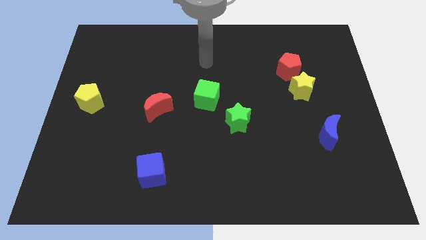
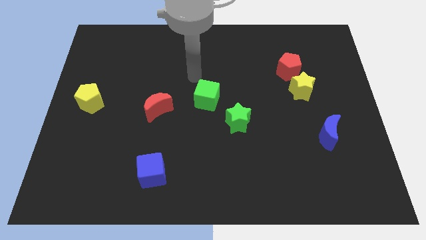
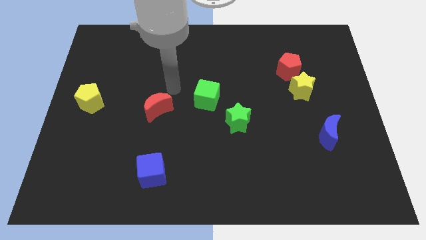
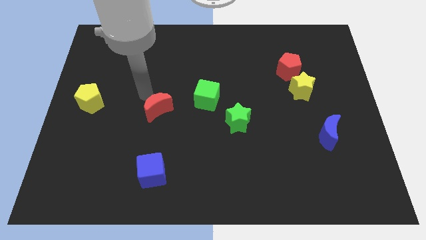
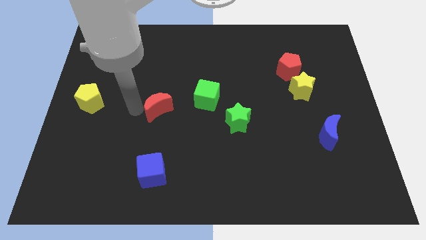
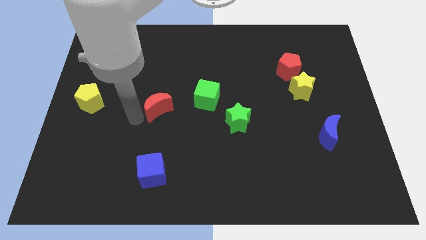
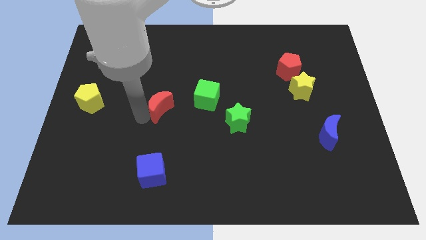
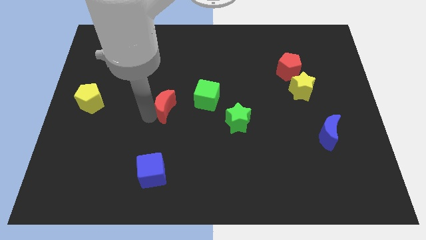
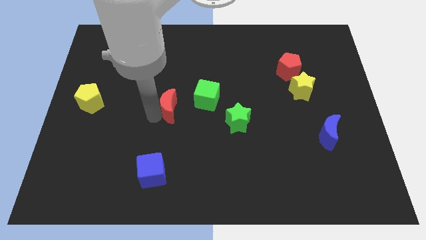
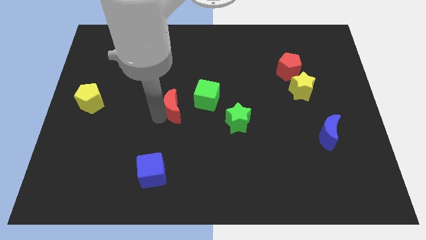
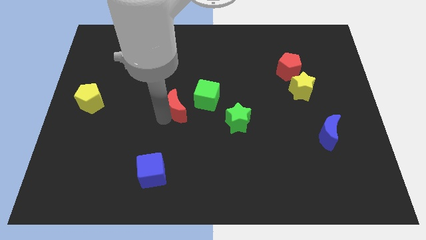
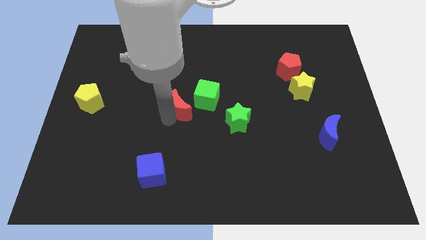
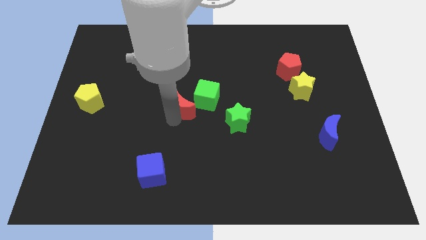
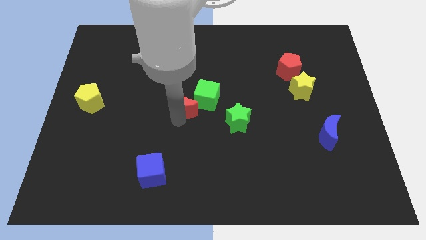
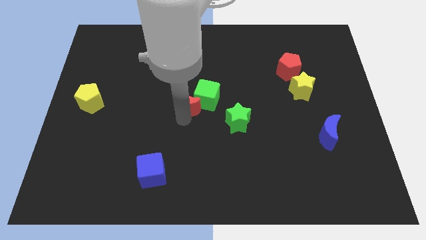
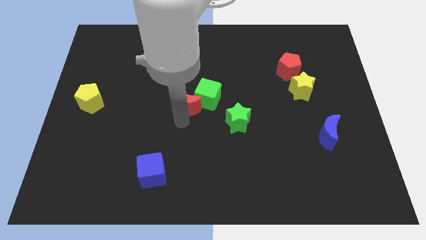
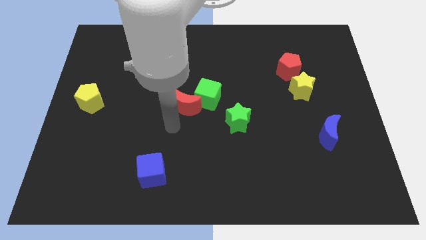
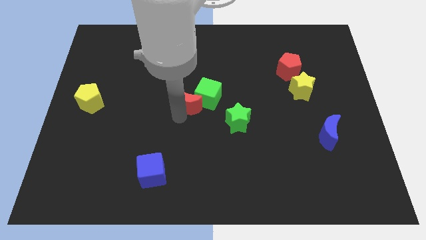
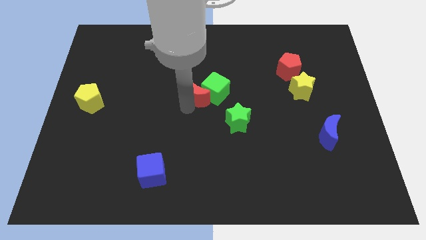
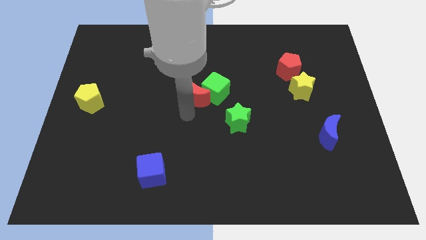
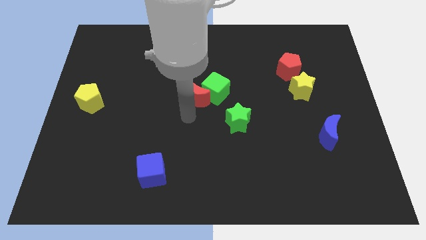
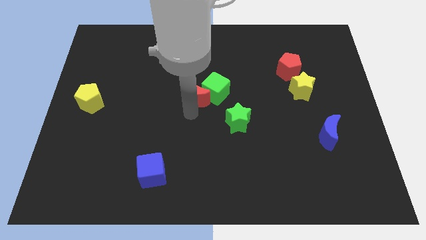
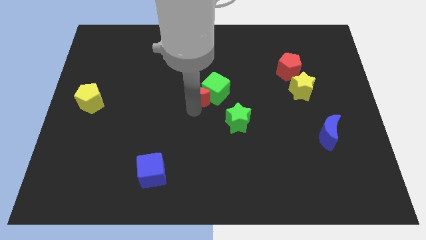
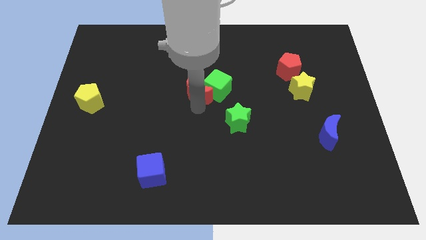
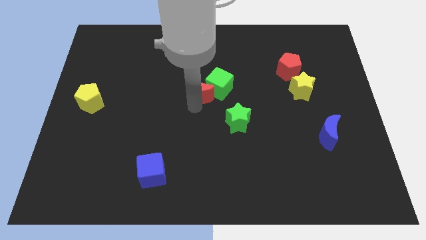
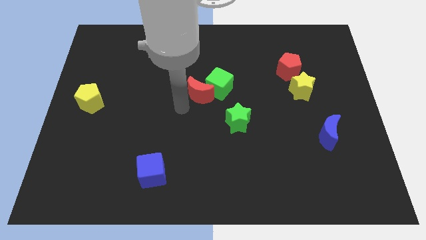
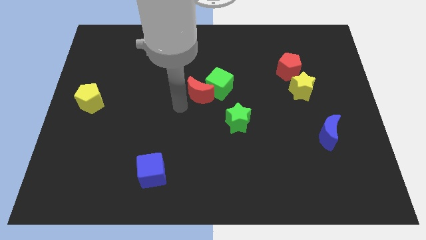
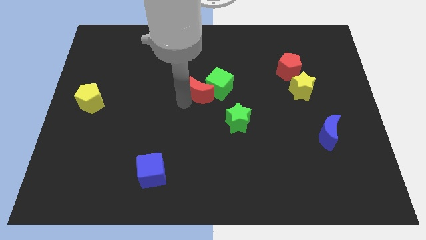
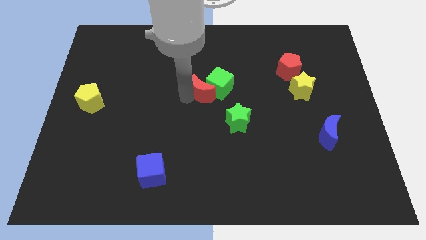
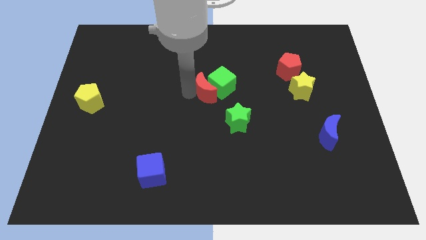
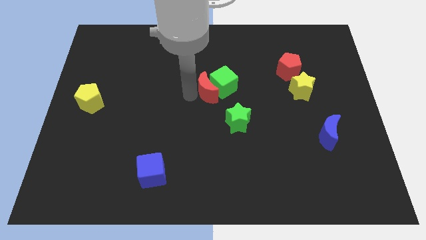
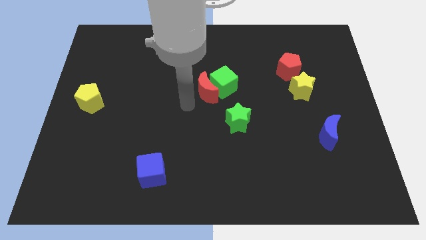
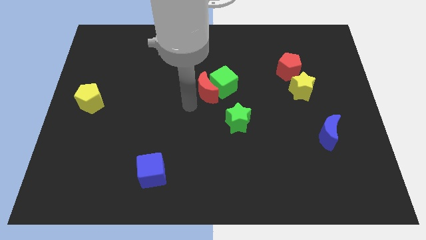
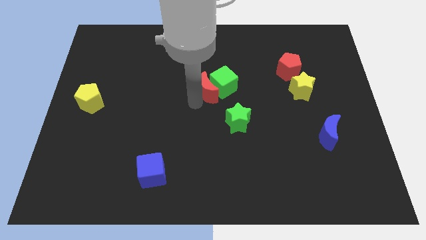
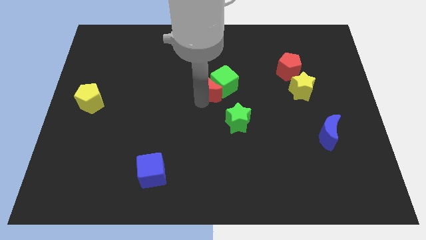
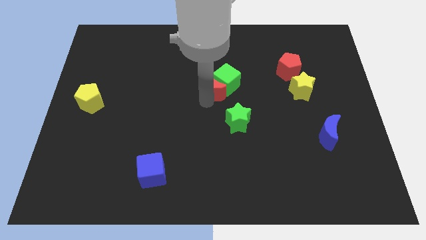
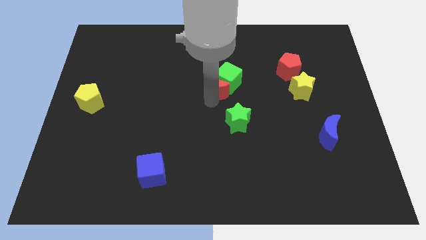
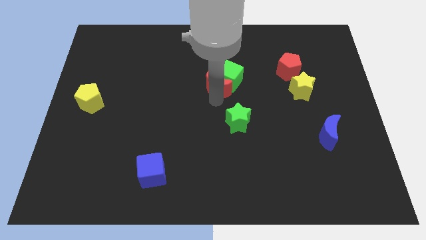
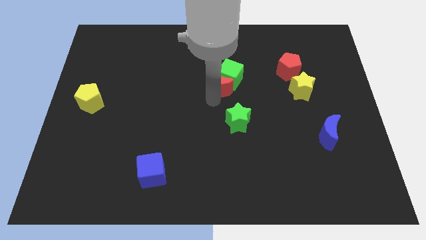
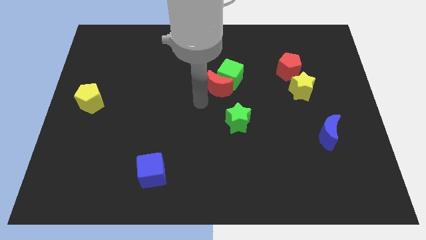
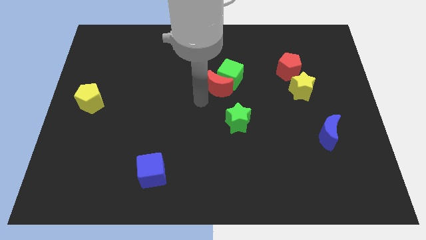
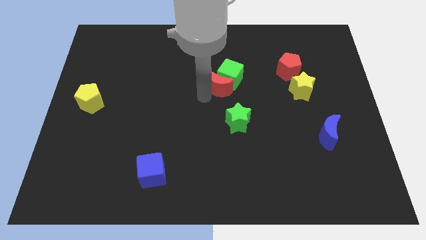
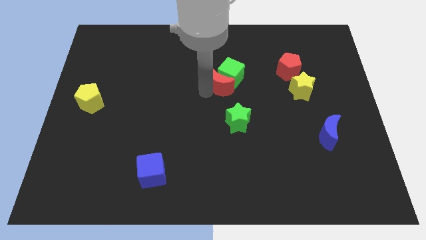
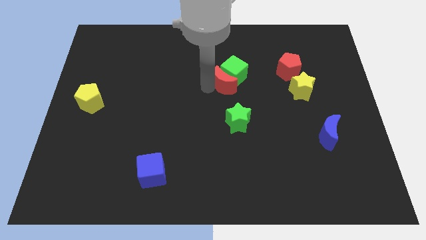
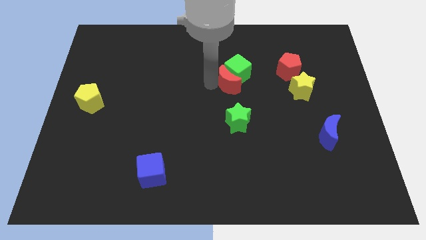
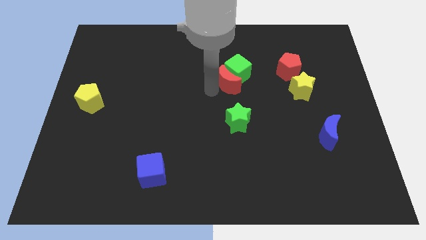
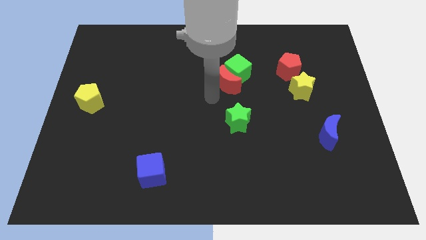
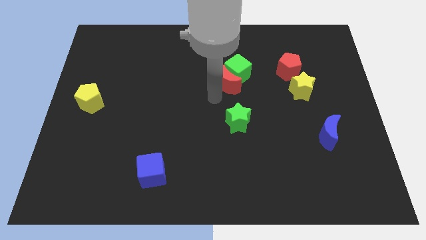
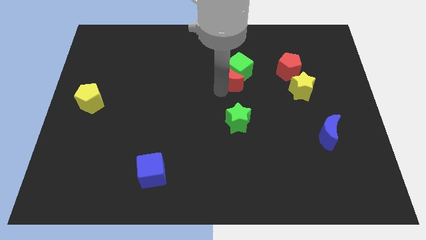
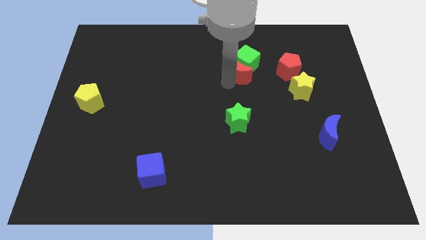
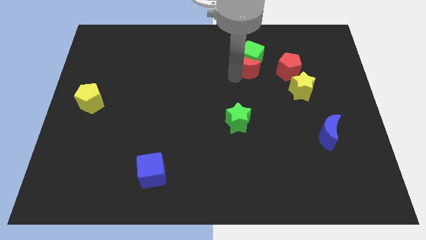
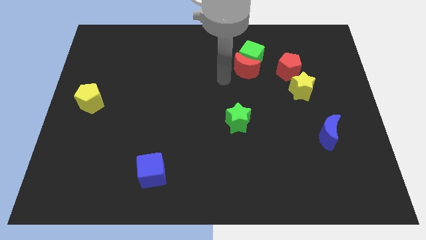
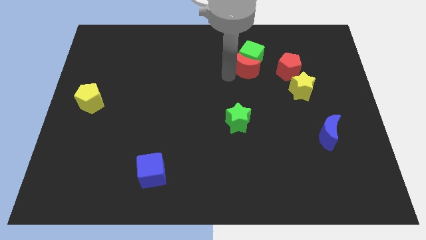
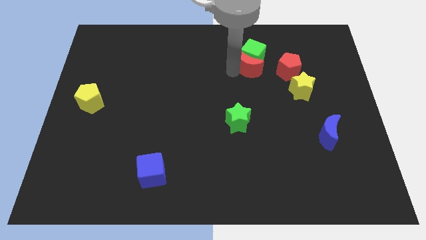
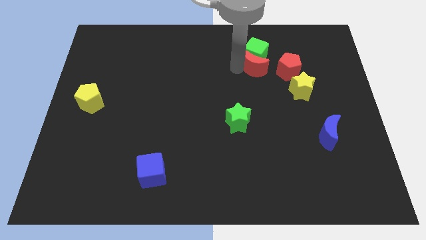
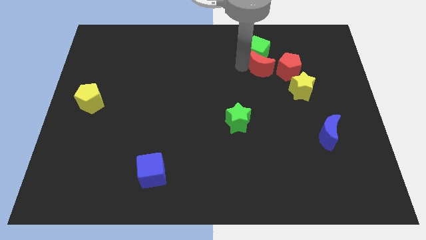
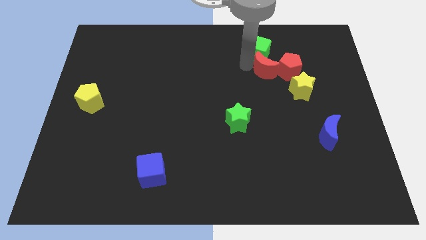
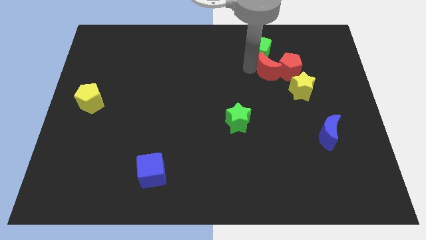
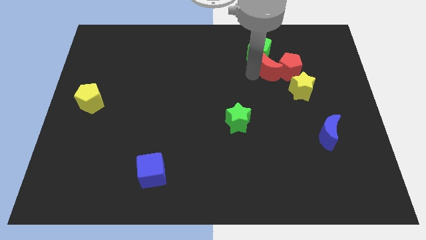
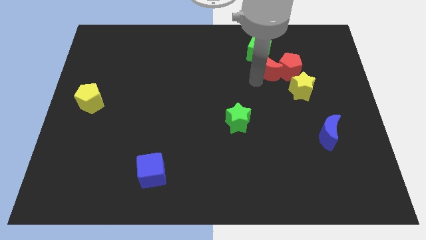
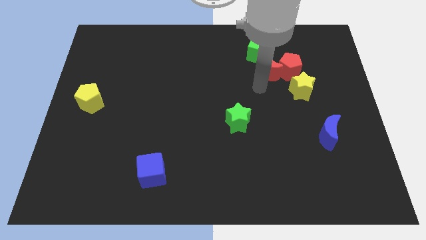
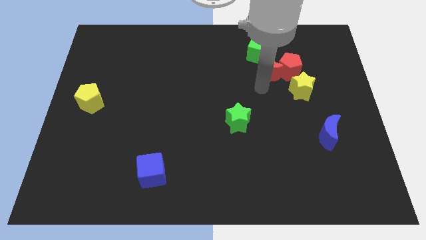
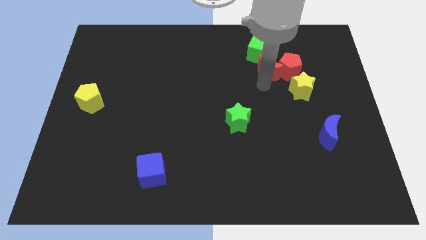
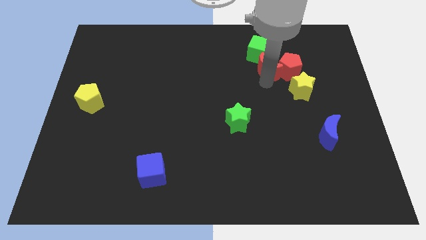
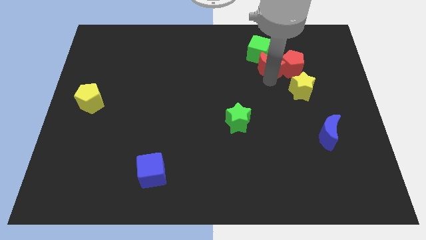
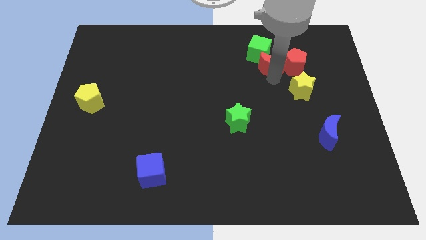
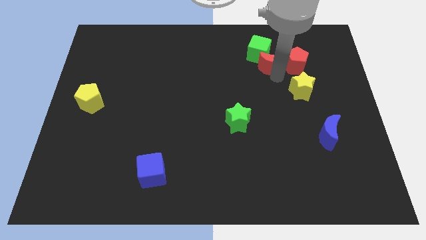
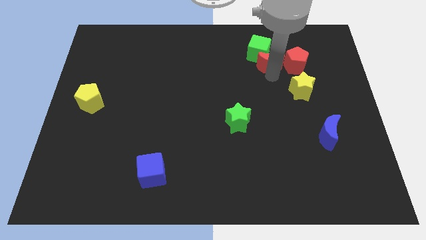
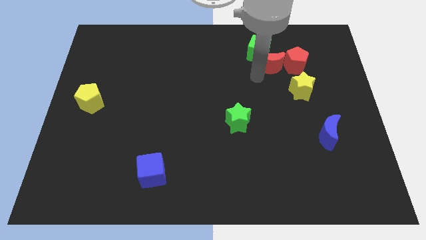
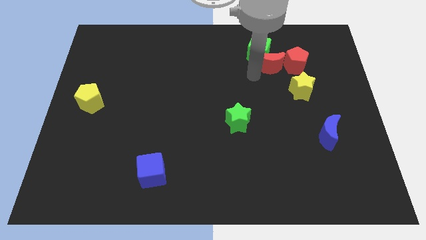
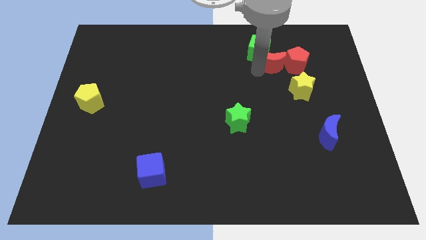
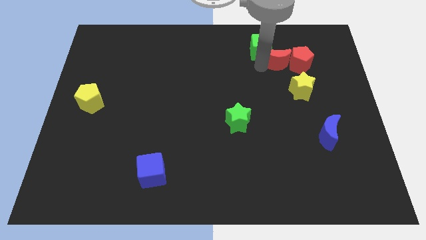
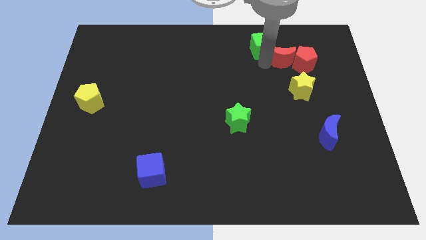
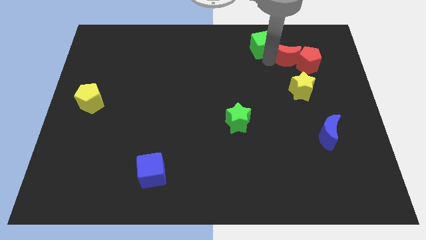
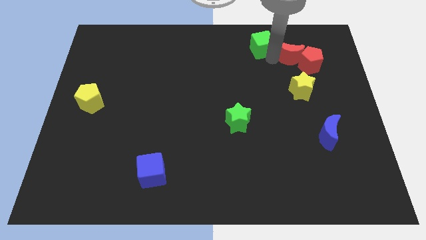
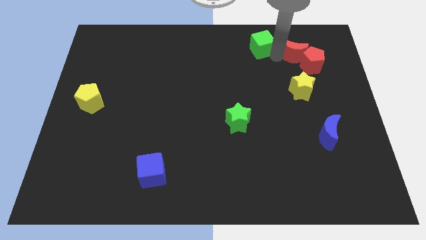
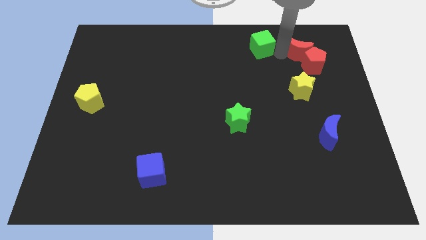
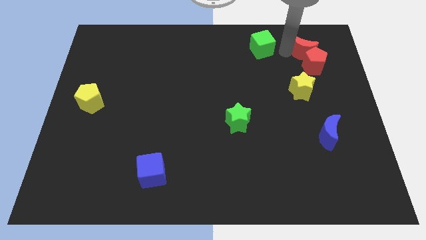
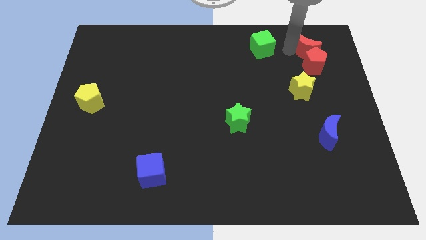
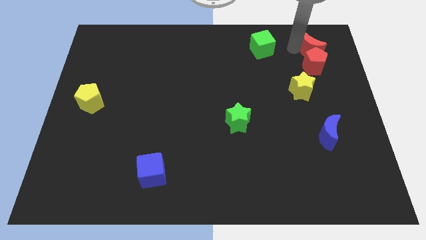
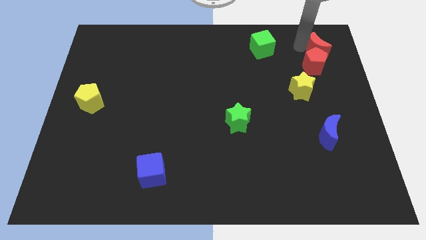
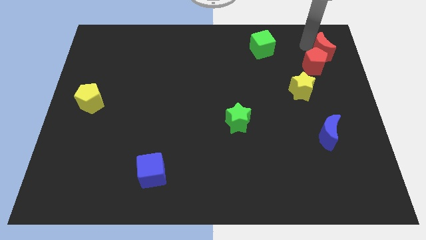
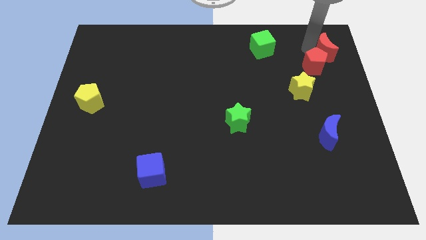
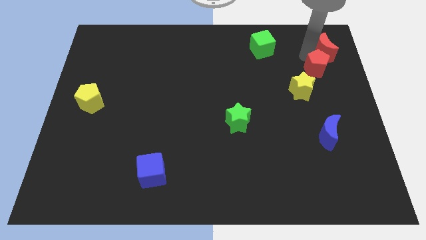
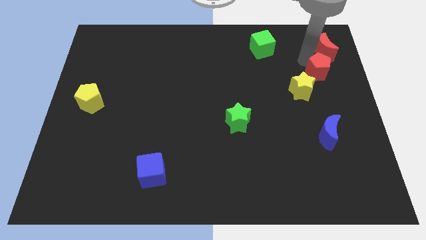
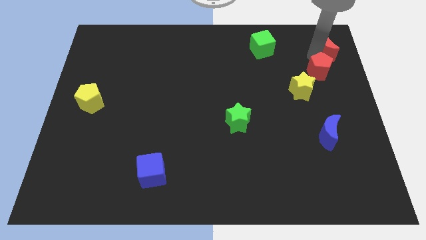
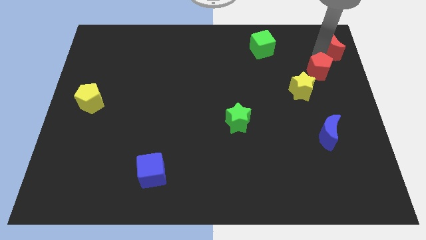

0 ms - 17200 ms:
push the red moon to the top right corner
